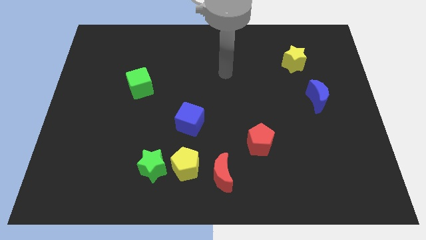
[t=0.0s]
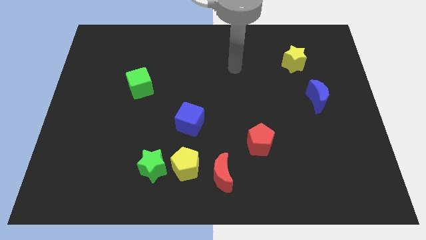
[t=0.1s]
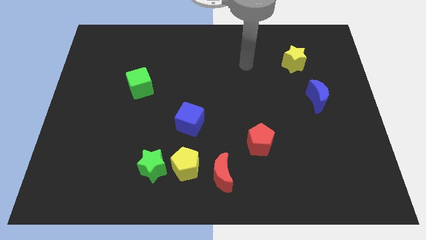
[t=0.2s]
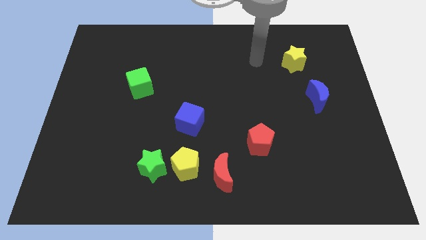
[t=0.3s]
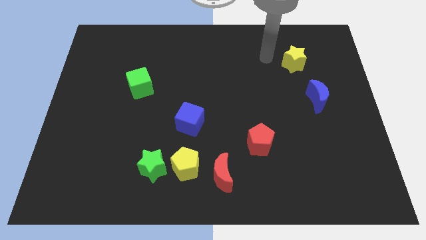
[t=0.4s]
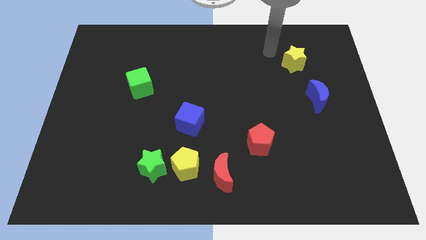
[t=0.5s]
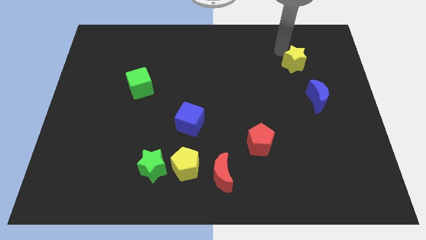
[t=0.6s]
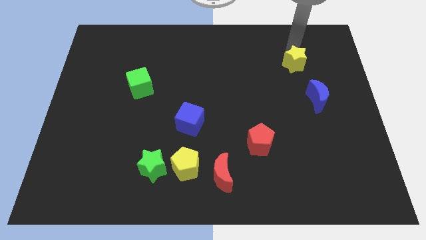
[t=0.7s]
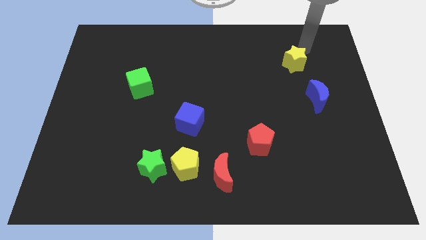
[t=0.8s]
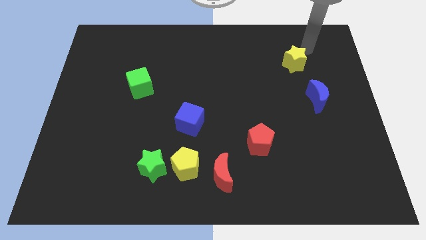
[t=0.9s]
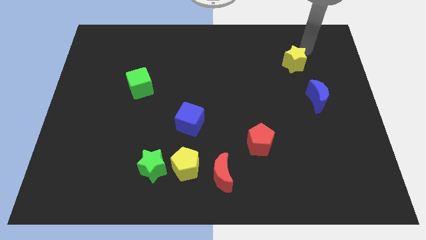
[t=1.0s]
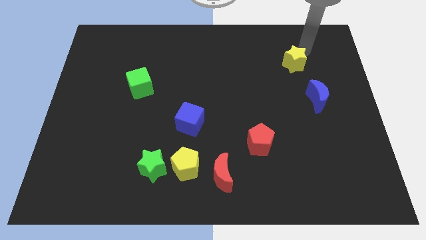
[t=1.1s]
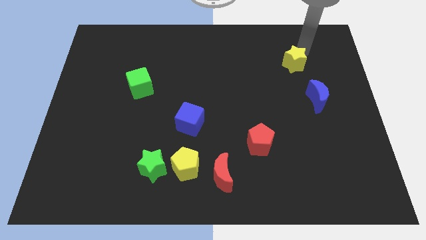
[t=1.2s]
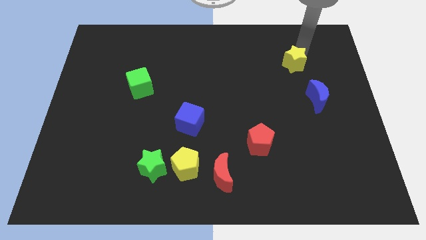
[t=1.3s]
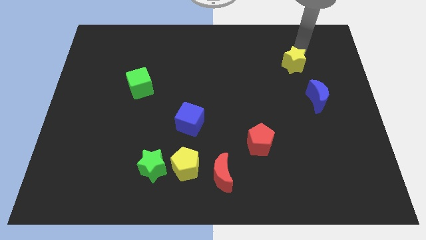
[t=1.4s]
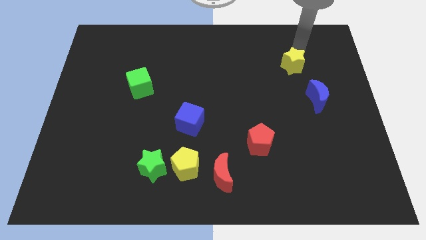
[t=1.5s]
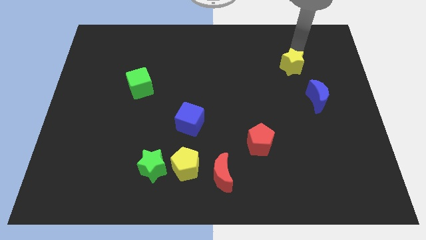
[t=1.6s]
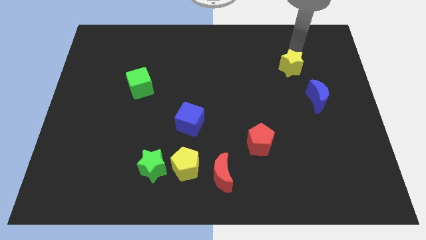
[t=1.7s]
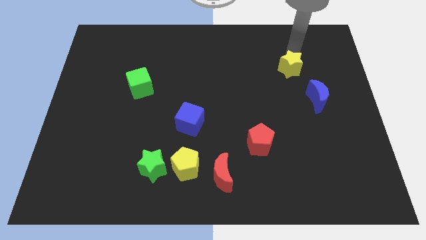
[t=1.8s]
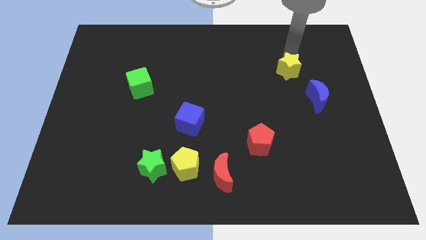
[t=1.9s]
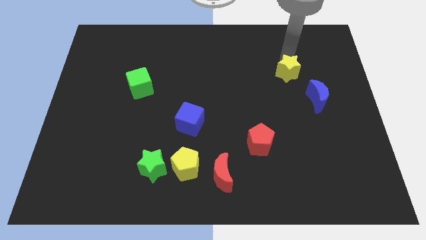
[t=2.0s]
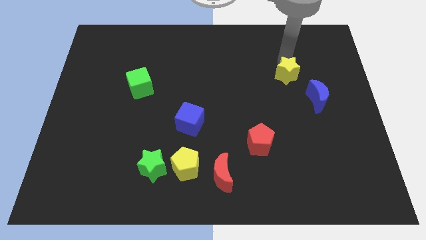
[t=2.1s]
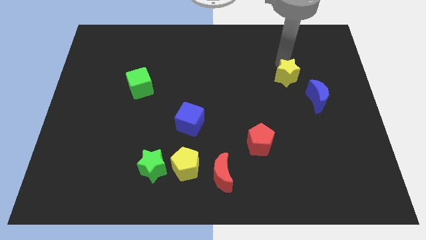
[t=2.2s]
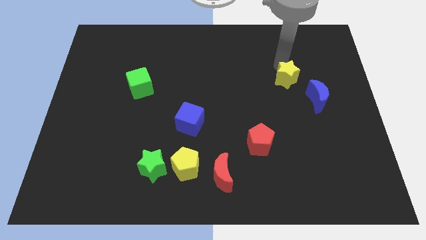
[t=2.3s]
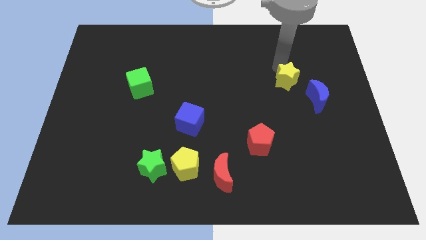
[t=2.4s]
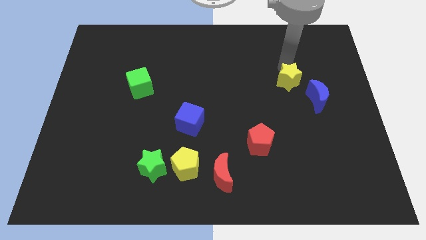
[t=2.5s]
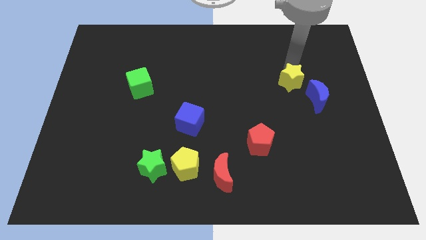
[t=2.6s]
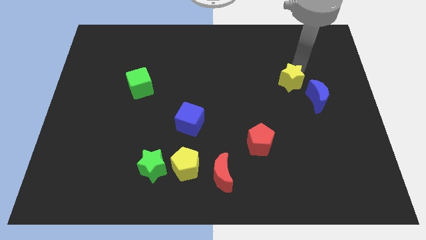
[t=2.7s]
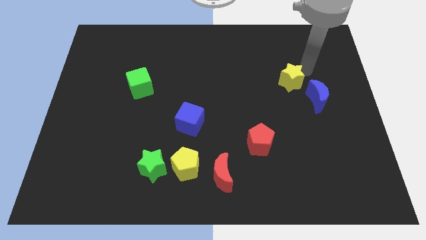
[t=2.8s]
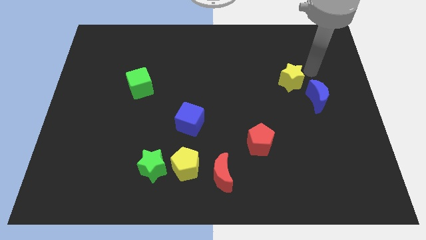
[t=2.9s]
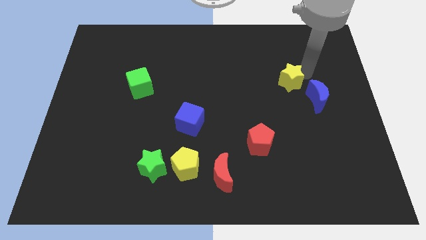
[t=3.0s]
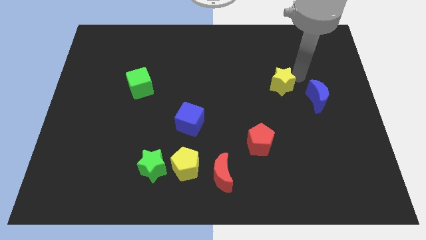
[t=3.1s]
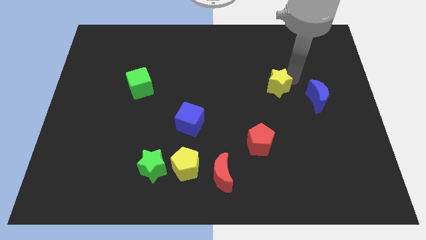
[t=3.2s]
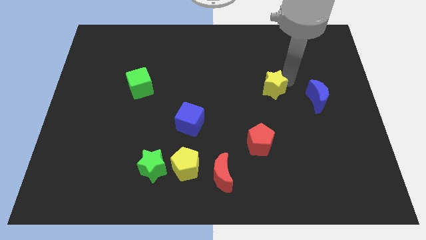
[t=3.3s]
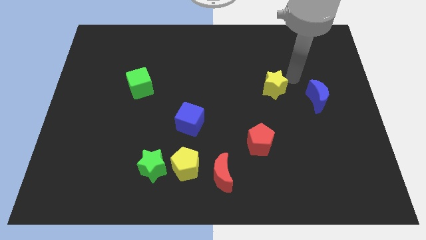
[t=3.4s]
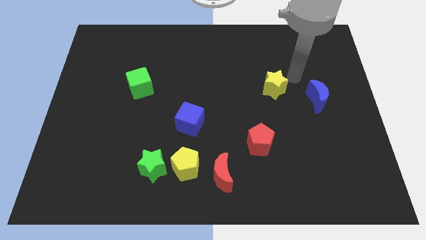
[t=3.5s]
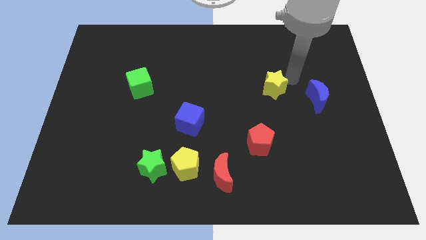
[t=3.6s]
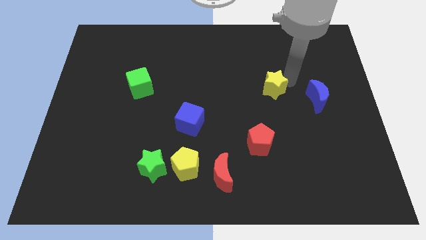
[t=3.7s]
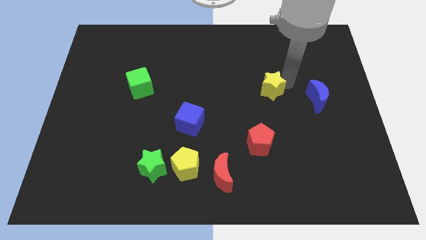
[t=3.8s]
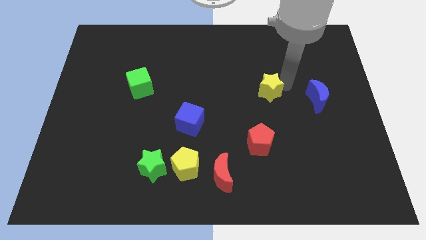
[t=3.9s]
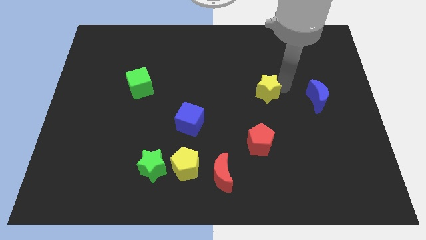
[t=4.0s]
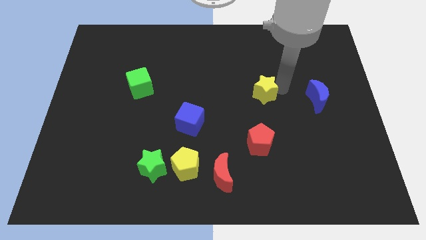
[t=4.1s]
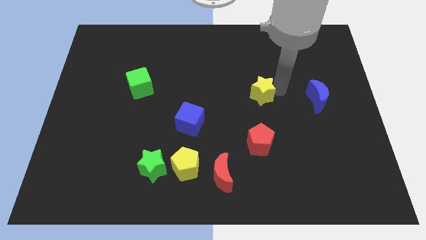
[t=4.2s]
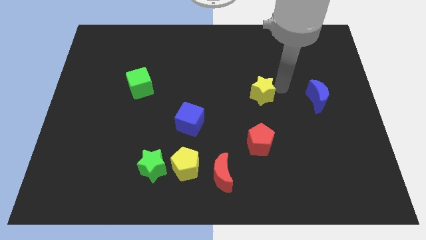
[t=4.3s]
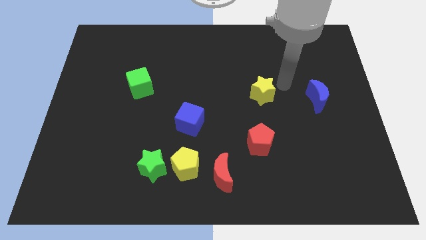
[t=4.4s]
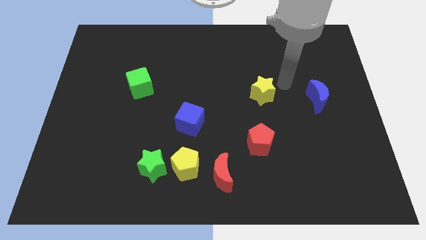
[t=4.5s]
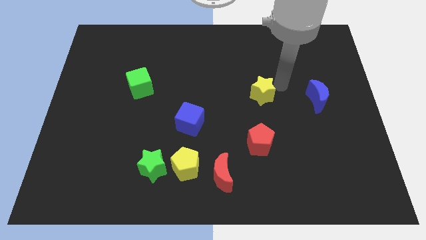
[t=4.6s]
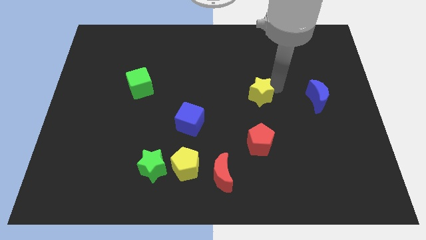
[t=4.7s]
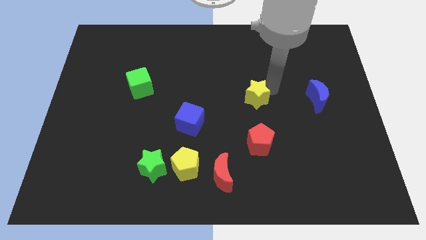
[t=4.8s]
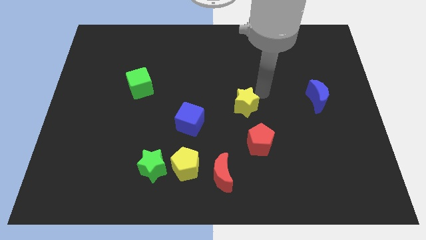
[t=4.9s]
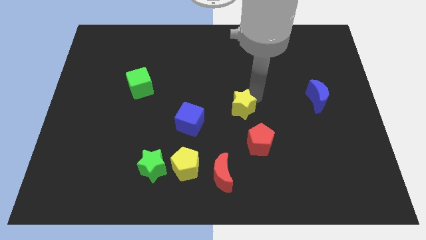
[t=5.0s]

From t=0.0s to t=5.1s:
move the yellow star downwards and left diagonally

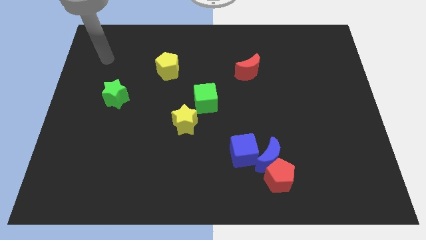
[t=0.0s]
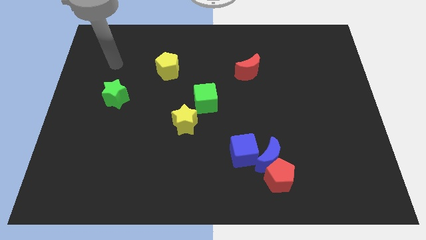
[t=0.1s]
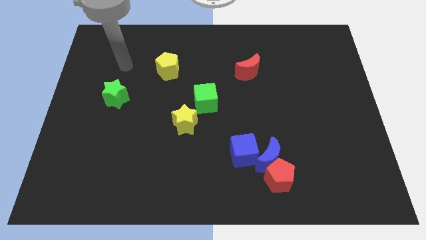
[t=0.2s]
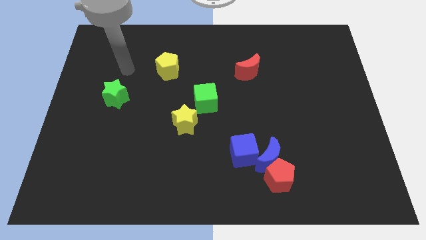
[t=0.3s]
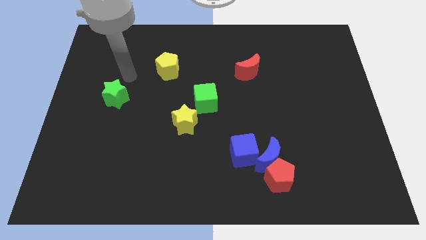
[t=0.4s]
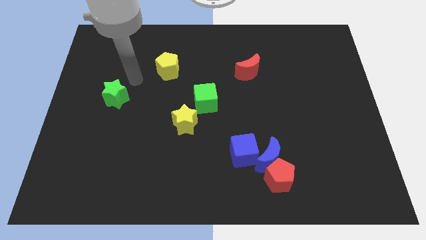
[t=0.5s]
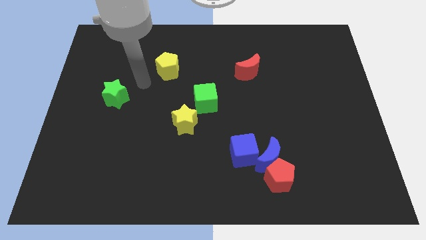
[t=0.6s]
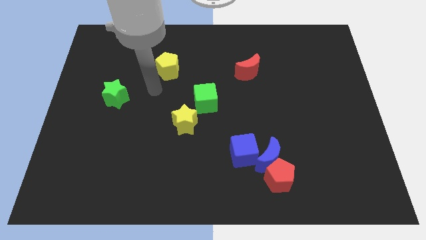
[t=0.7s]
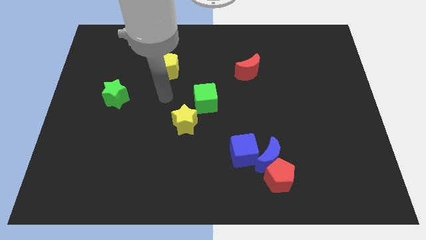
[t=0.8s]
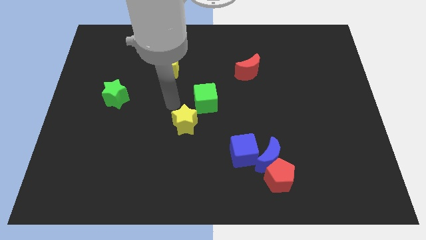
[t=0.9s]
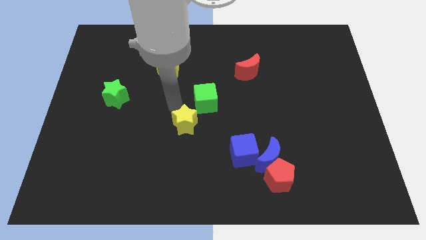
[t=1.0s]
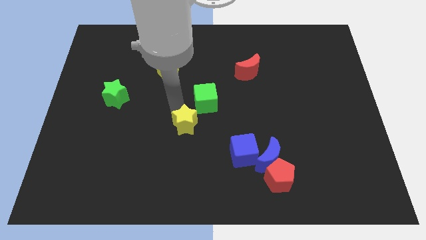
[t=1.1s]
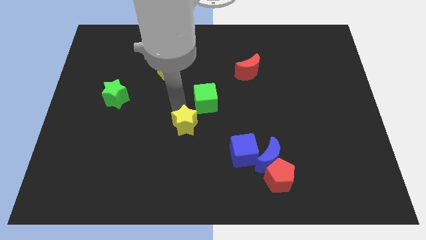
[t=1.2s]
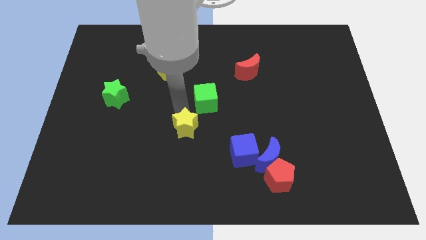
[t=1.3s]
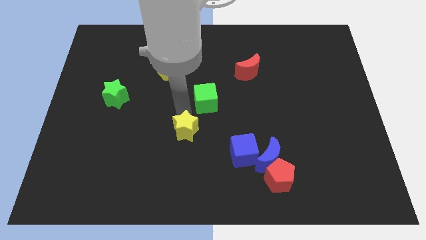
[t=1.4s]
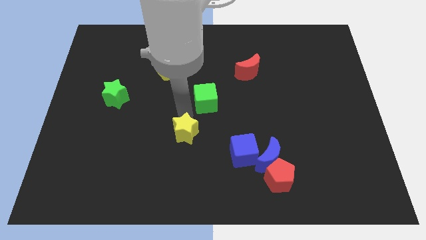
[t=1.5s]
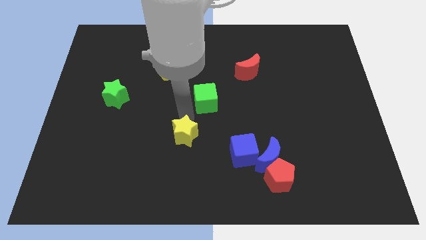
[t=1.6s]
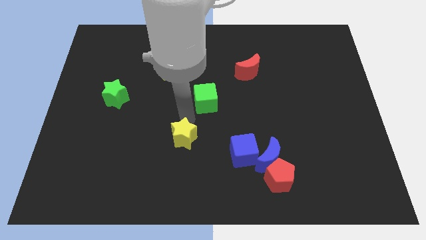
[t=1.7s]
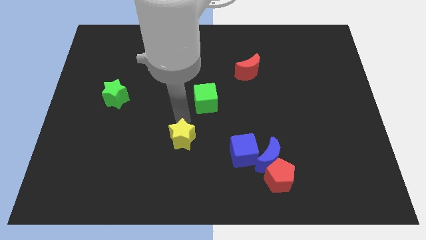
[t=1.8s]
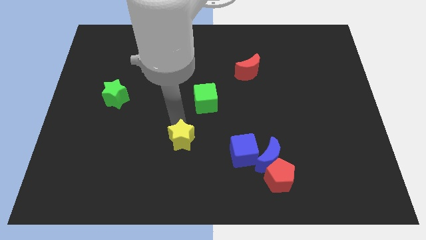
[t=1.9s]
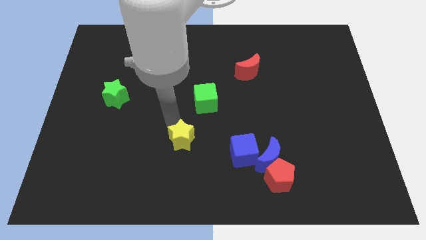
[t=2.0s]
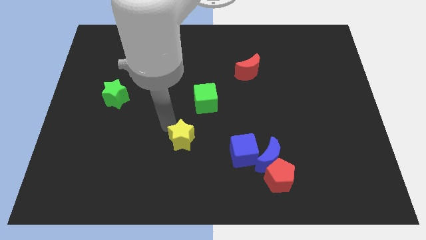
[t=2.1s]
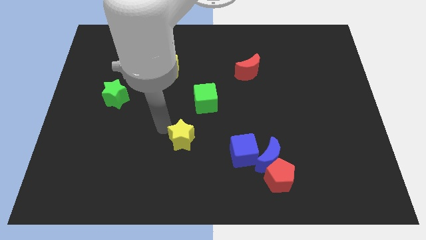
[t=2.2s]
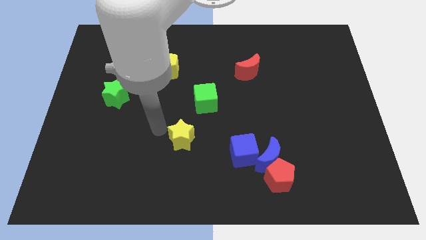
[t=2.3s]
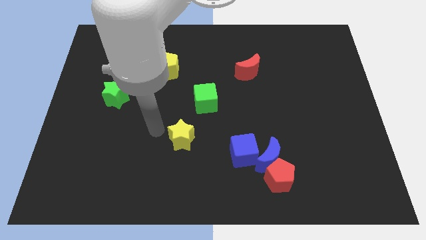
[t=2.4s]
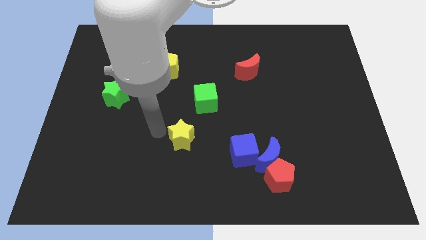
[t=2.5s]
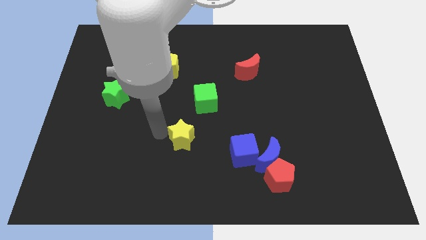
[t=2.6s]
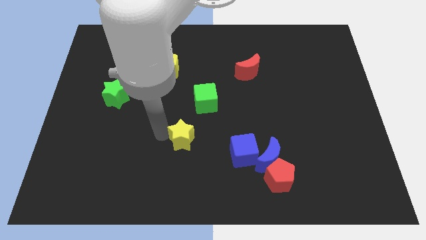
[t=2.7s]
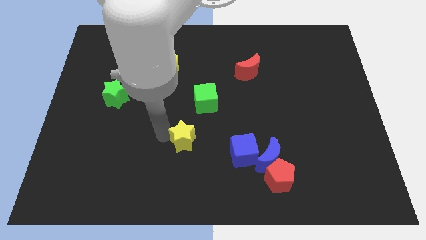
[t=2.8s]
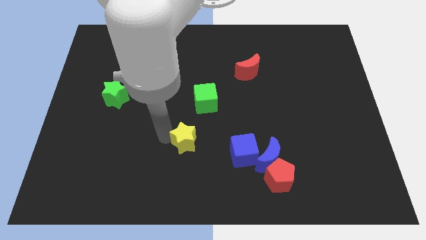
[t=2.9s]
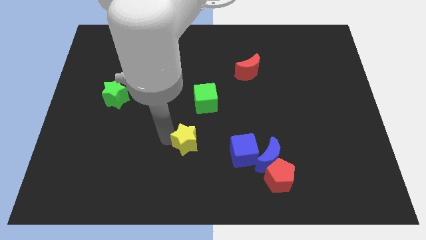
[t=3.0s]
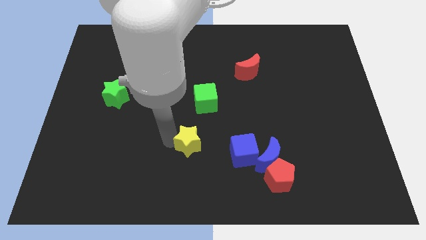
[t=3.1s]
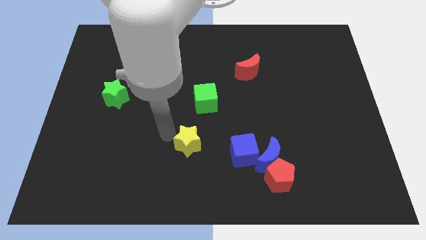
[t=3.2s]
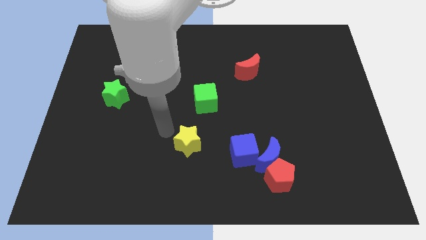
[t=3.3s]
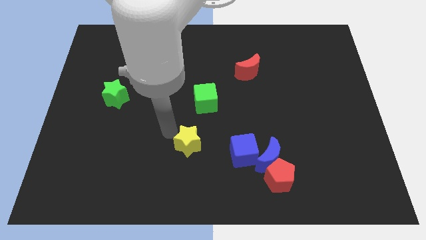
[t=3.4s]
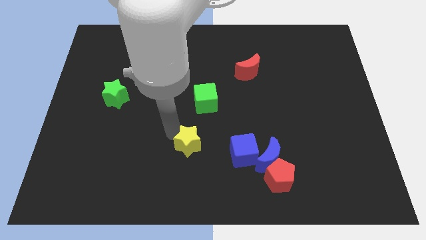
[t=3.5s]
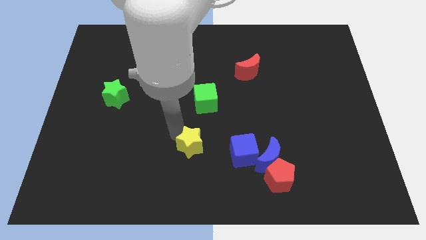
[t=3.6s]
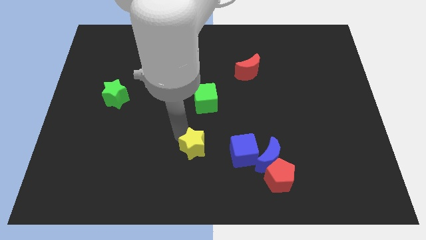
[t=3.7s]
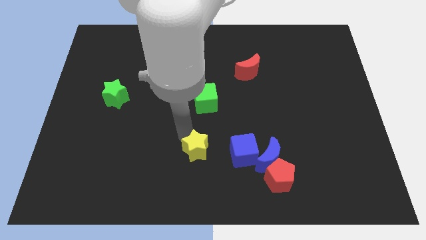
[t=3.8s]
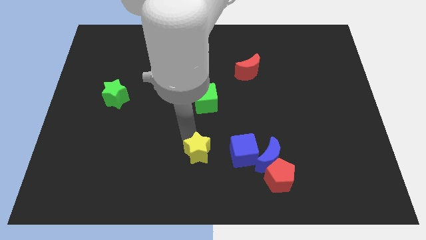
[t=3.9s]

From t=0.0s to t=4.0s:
push the yellow star a bit diagonally down and right
